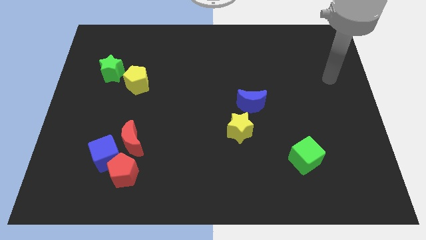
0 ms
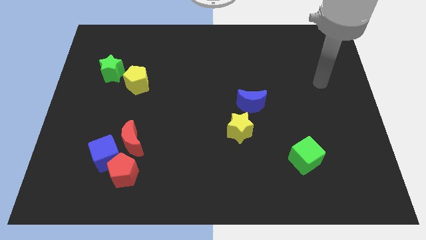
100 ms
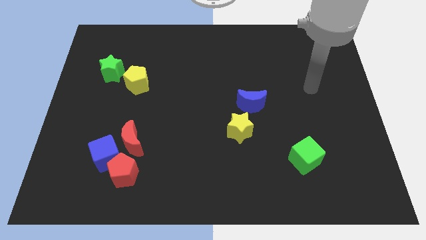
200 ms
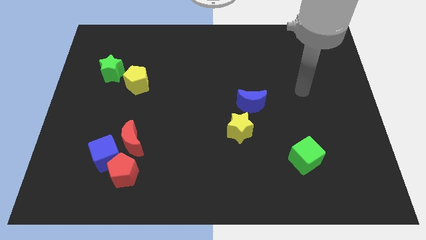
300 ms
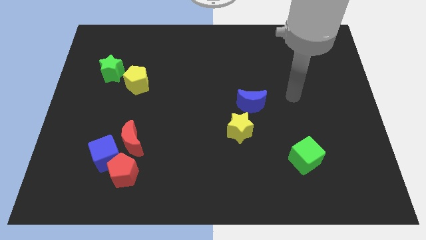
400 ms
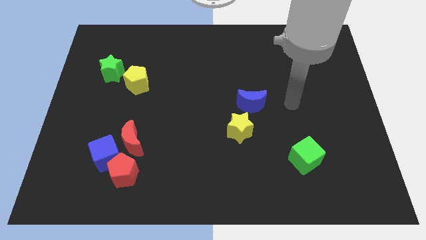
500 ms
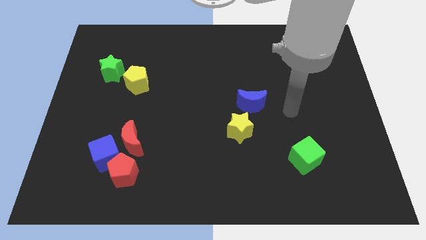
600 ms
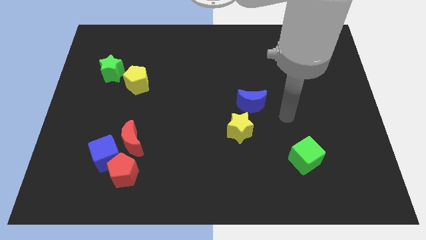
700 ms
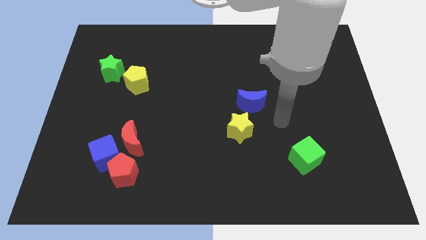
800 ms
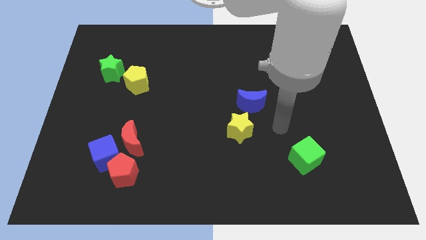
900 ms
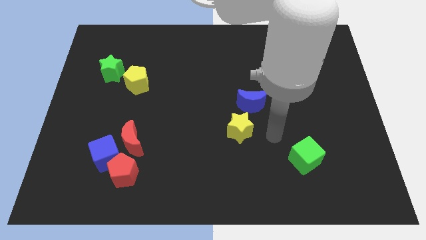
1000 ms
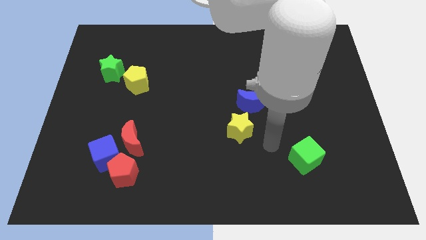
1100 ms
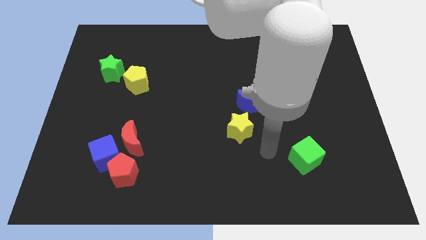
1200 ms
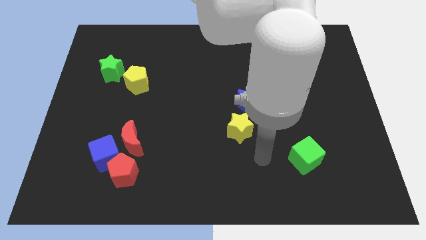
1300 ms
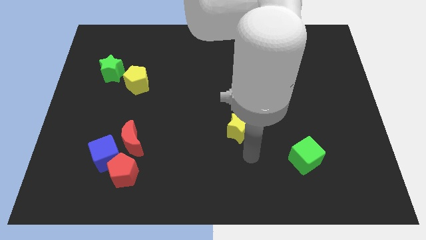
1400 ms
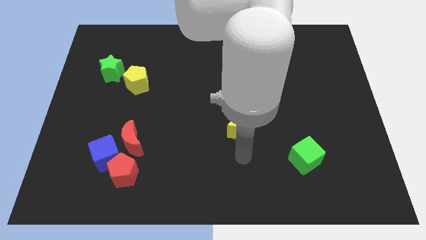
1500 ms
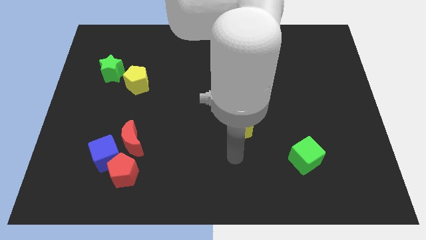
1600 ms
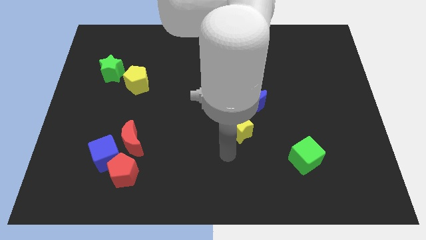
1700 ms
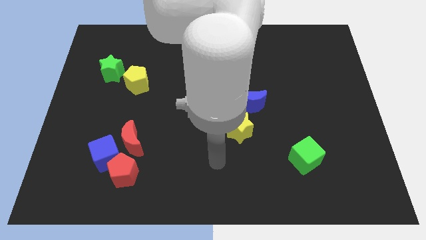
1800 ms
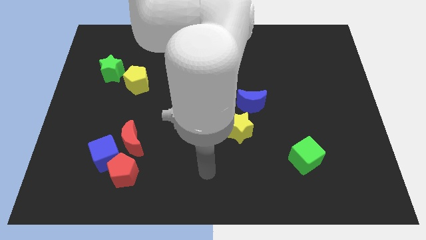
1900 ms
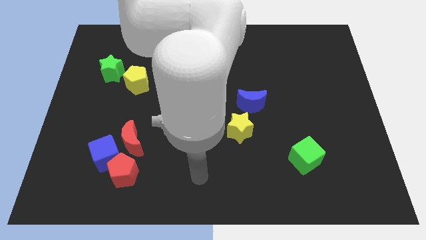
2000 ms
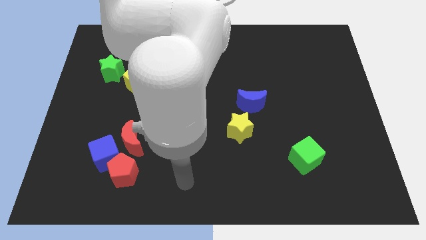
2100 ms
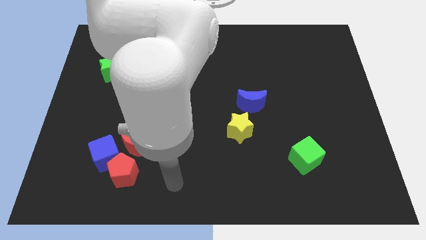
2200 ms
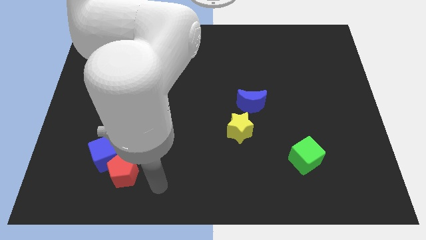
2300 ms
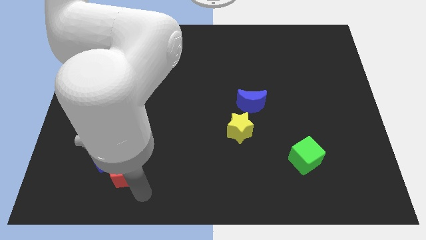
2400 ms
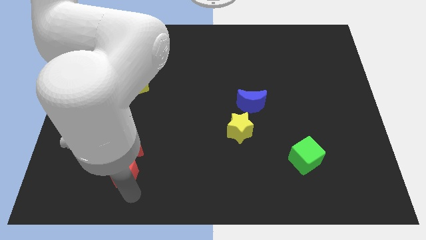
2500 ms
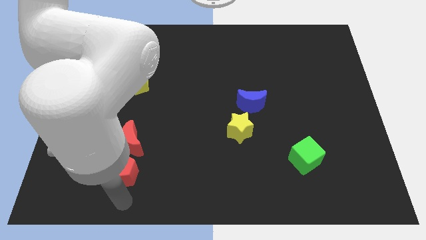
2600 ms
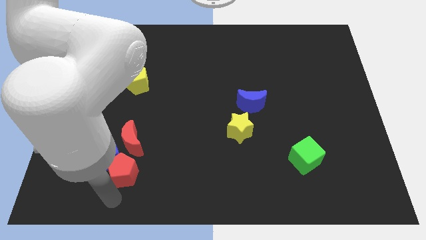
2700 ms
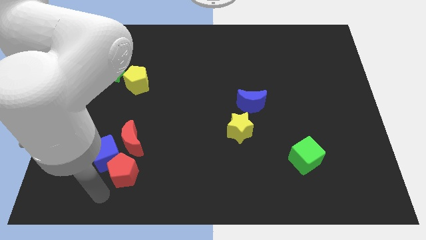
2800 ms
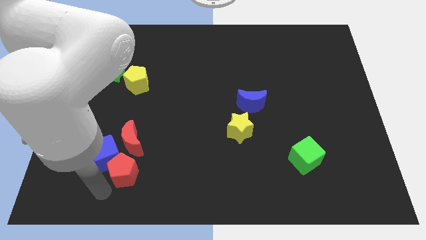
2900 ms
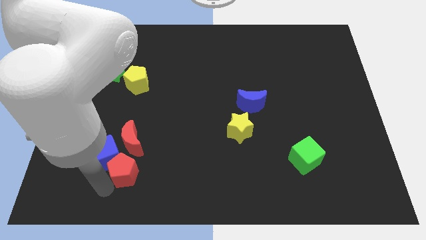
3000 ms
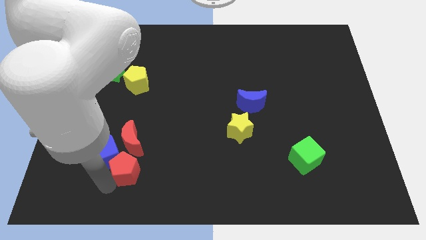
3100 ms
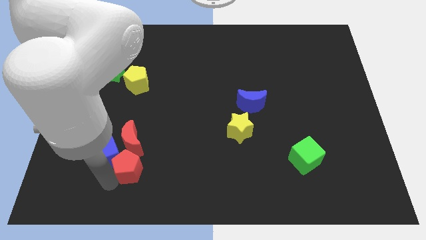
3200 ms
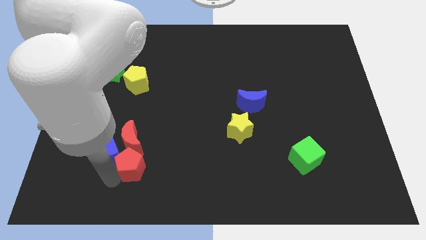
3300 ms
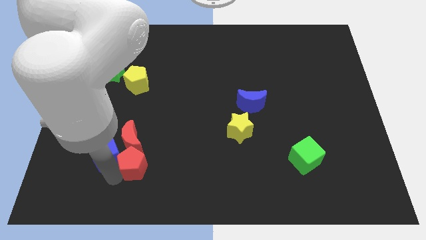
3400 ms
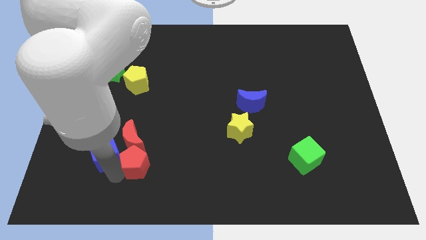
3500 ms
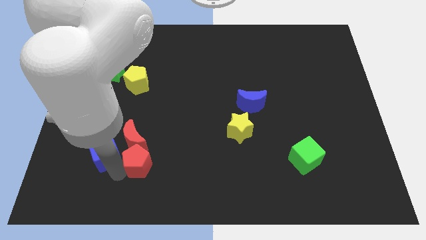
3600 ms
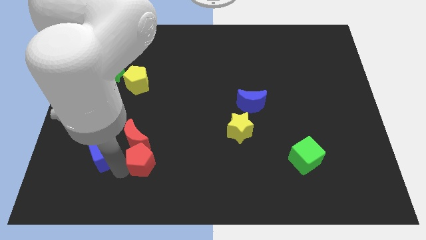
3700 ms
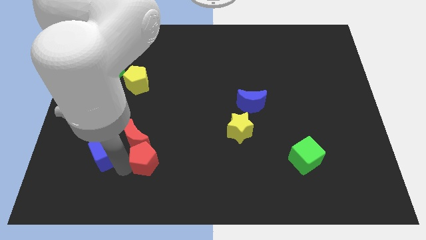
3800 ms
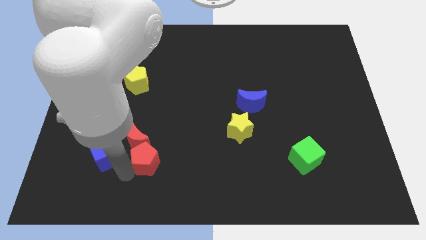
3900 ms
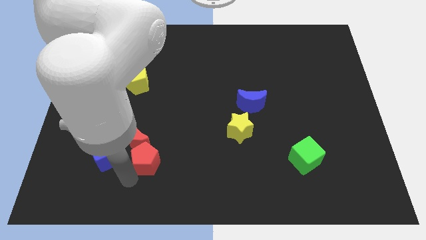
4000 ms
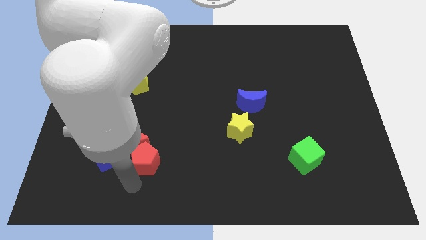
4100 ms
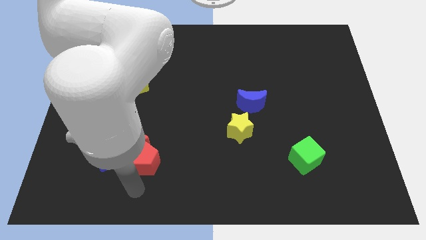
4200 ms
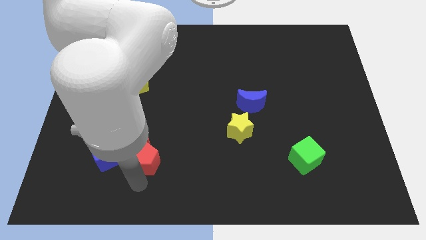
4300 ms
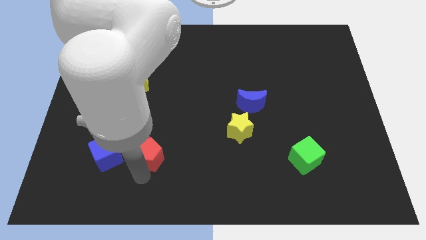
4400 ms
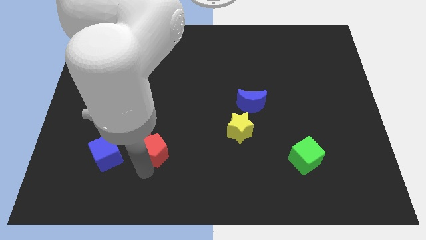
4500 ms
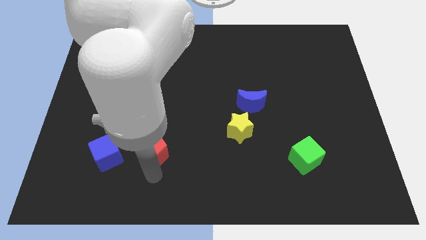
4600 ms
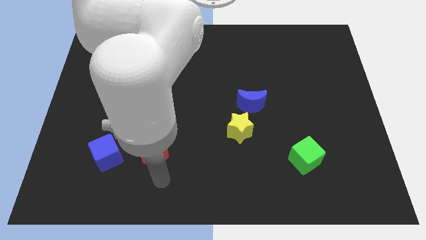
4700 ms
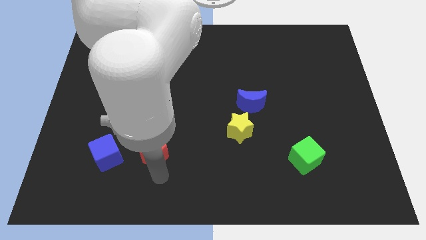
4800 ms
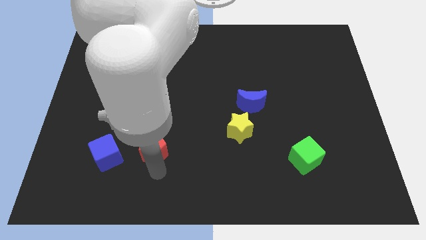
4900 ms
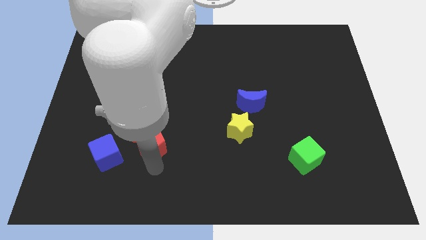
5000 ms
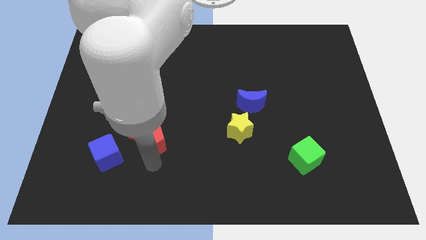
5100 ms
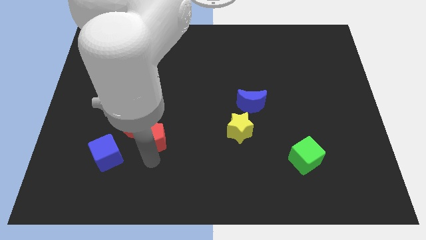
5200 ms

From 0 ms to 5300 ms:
slightly push the red pentagon up

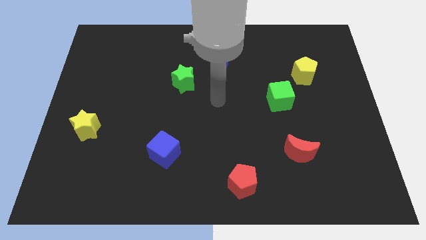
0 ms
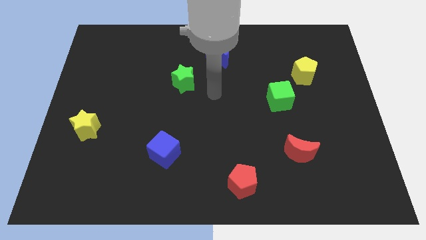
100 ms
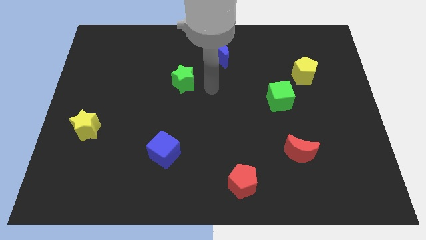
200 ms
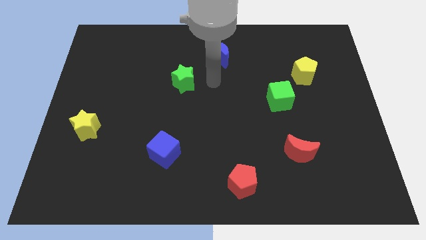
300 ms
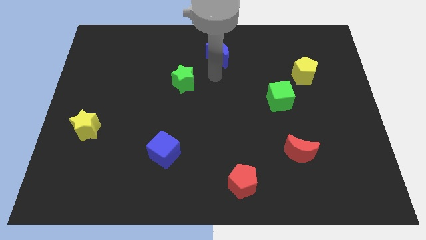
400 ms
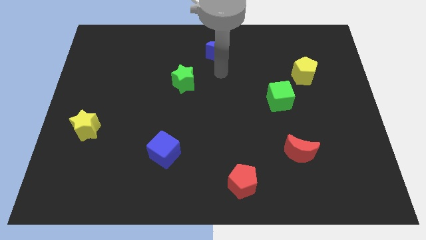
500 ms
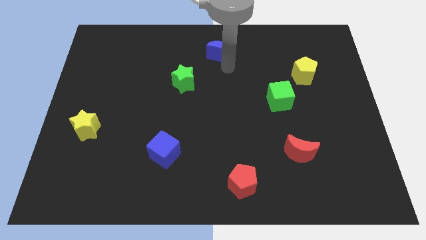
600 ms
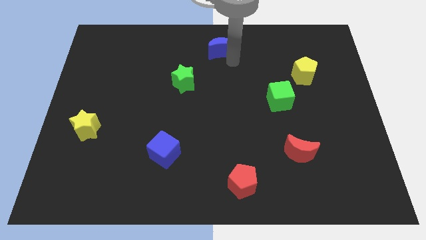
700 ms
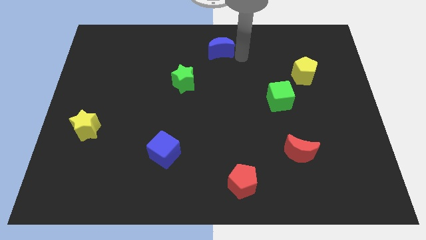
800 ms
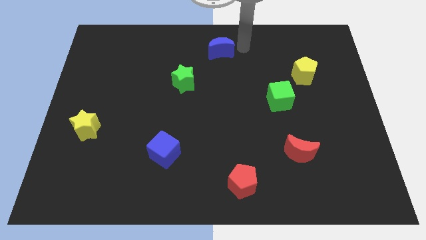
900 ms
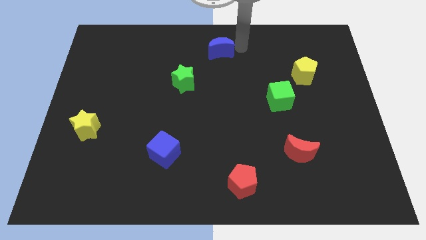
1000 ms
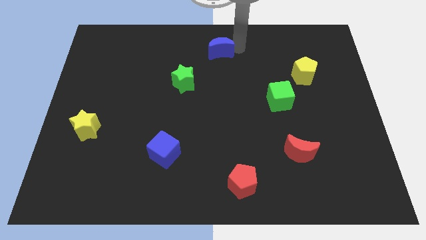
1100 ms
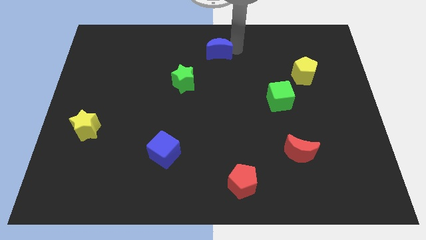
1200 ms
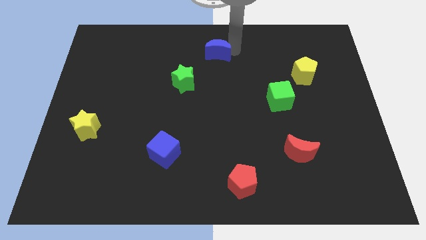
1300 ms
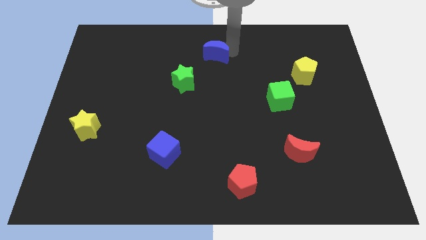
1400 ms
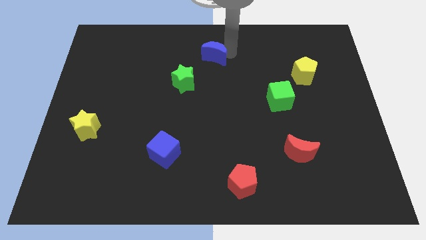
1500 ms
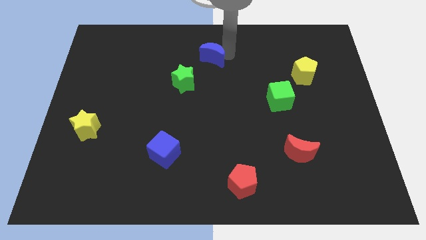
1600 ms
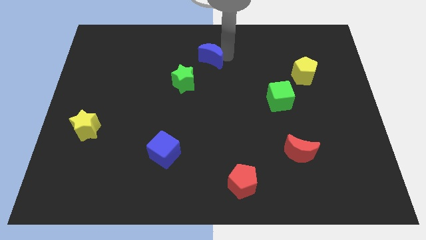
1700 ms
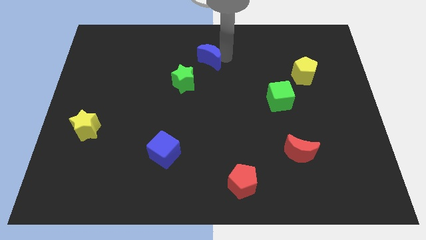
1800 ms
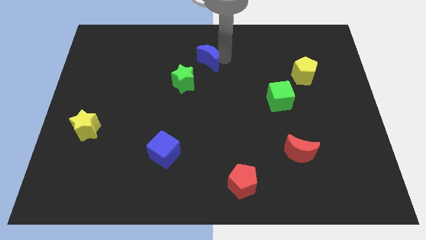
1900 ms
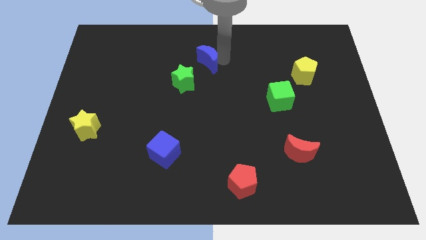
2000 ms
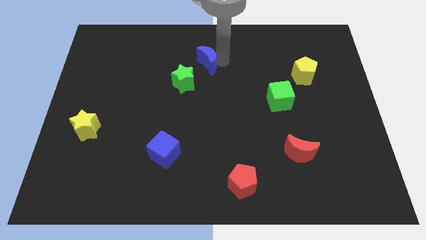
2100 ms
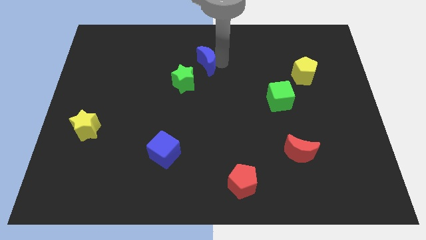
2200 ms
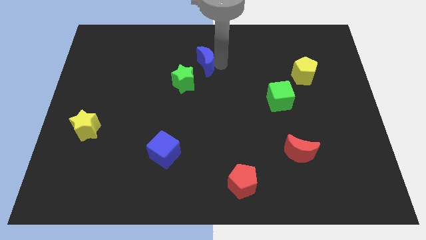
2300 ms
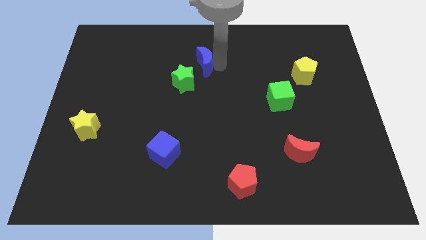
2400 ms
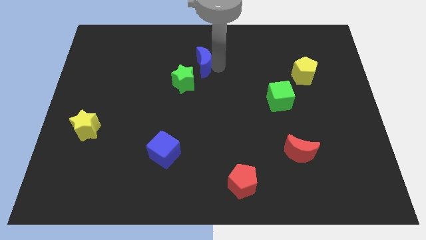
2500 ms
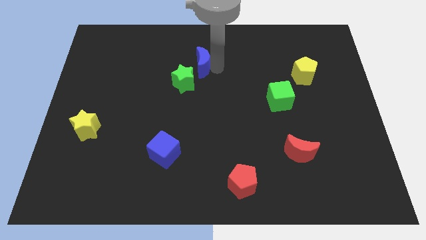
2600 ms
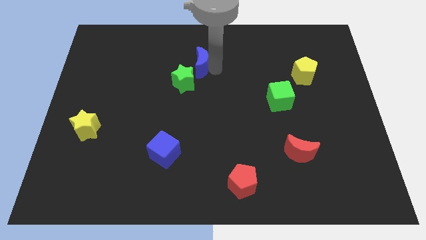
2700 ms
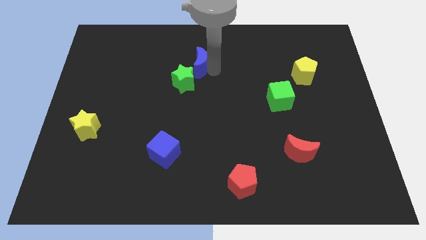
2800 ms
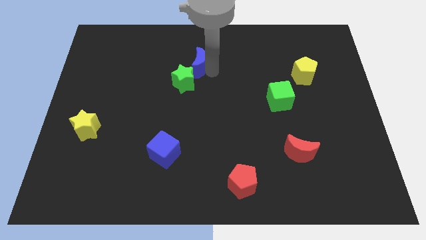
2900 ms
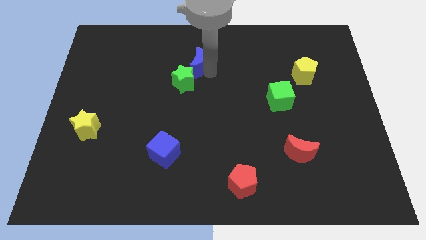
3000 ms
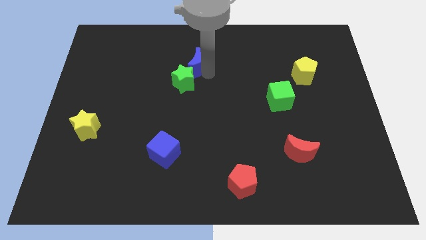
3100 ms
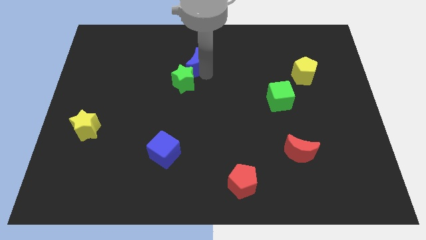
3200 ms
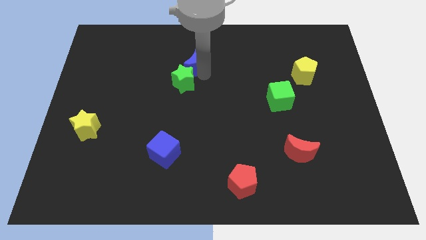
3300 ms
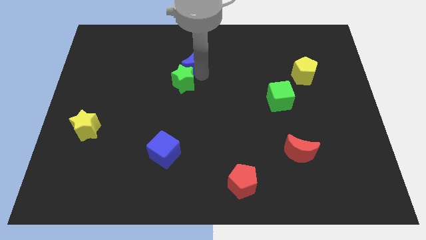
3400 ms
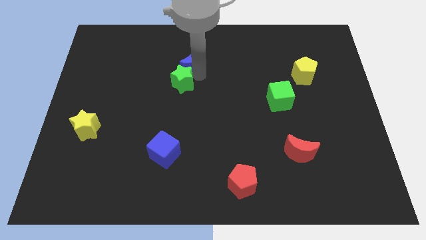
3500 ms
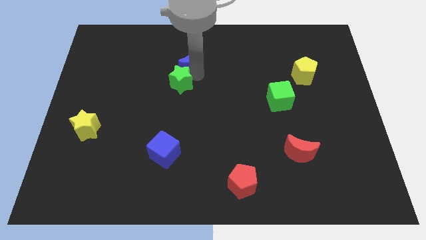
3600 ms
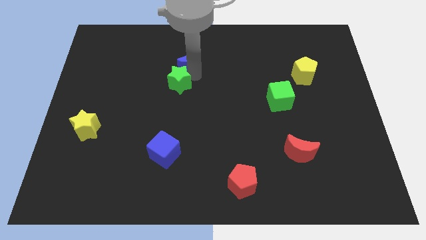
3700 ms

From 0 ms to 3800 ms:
slightly push the blue moon to the left
